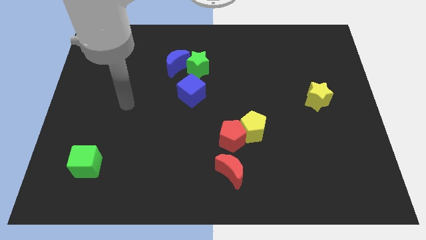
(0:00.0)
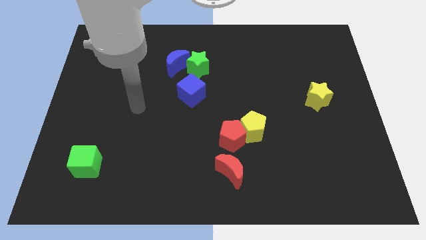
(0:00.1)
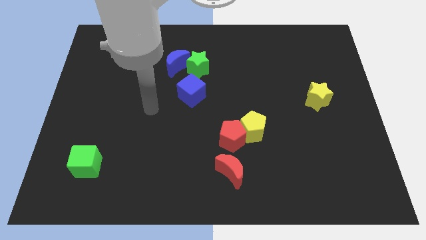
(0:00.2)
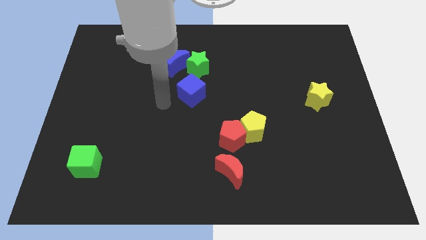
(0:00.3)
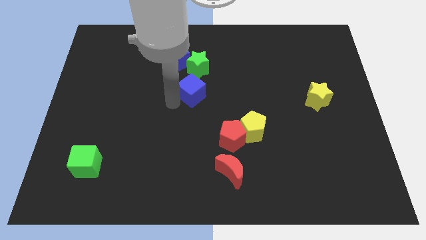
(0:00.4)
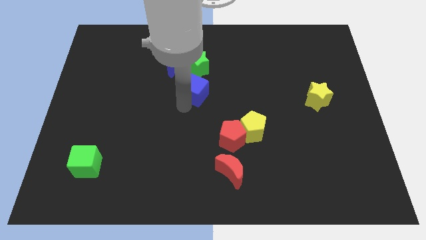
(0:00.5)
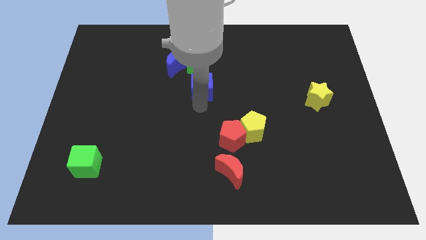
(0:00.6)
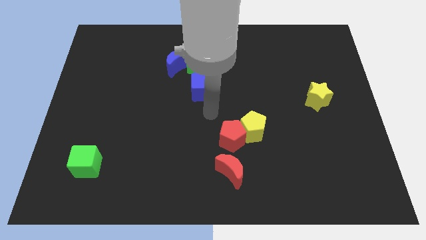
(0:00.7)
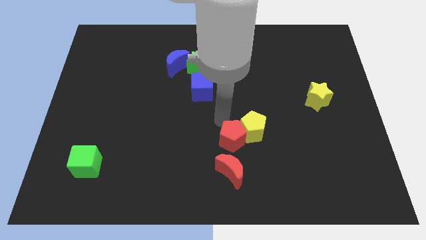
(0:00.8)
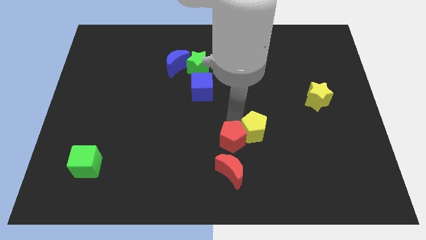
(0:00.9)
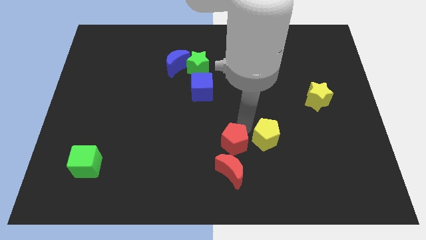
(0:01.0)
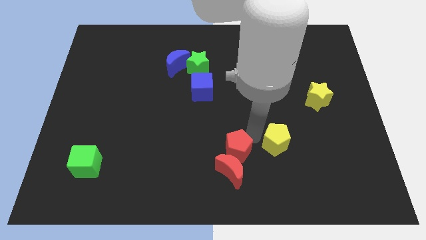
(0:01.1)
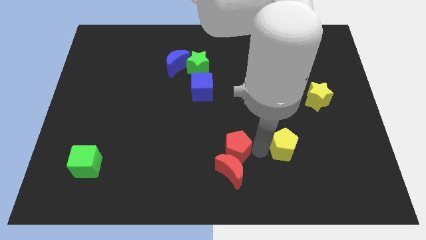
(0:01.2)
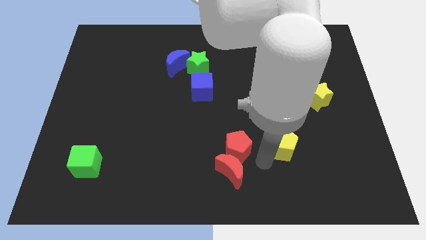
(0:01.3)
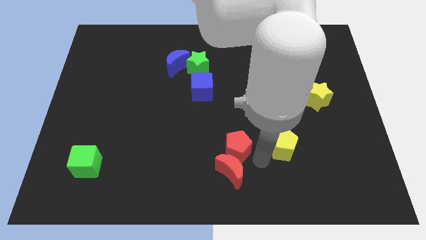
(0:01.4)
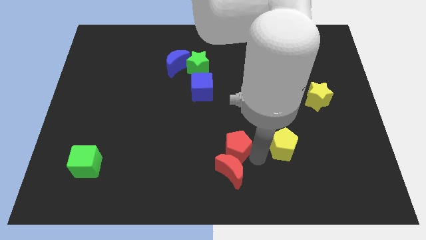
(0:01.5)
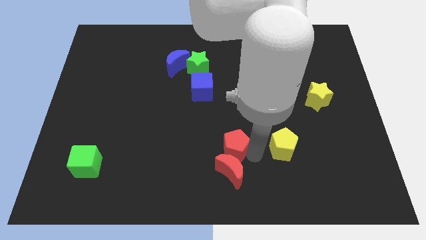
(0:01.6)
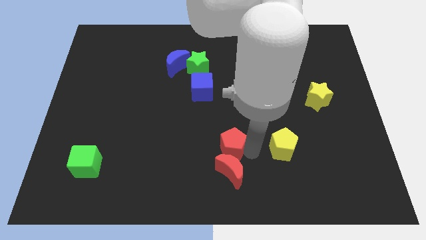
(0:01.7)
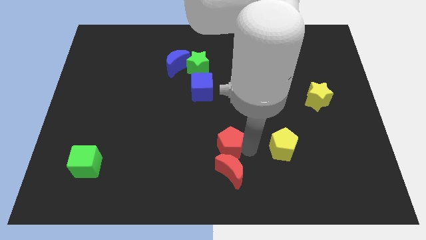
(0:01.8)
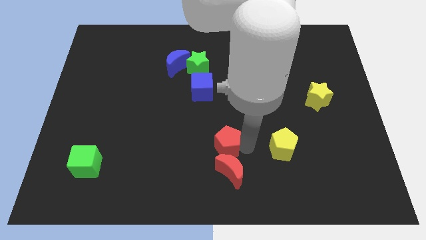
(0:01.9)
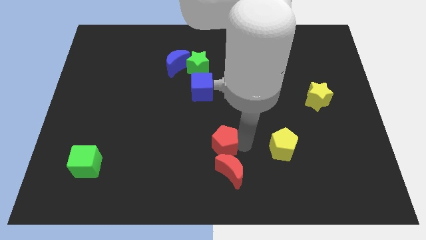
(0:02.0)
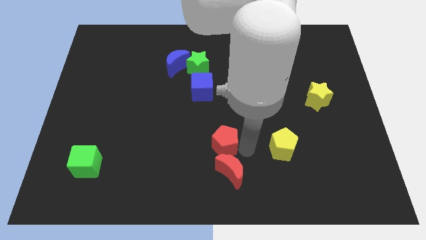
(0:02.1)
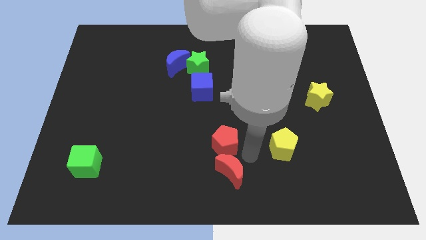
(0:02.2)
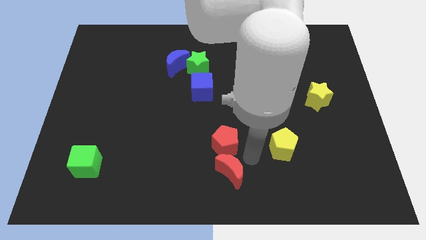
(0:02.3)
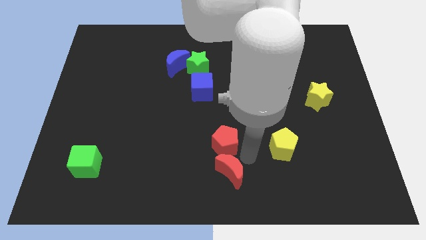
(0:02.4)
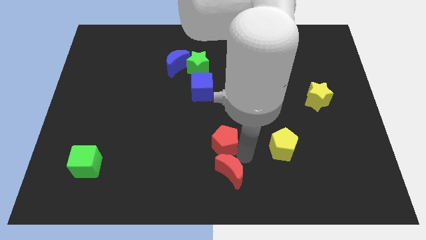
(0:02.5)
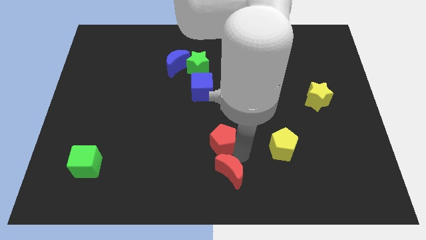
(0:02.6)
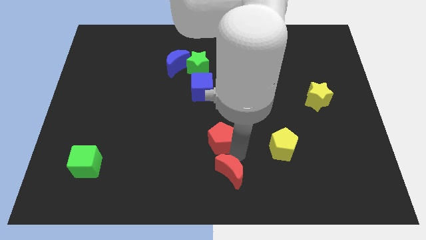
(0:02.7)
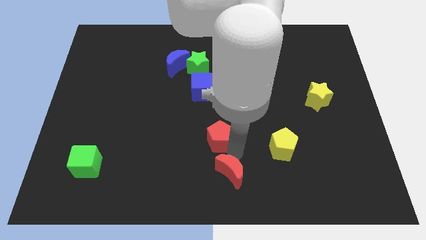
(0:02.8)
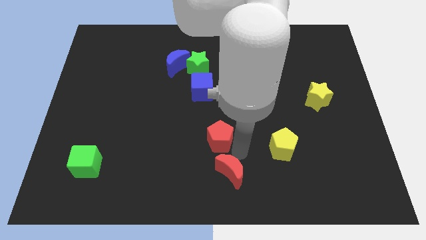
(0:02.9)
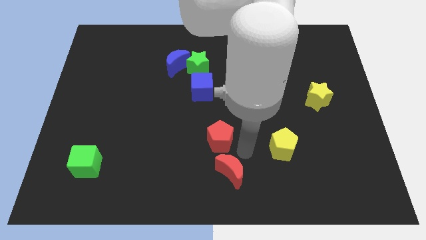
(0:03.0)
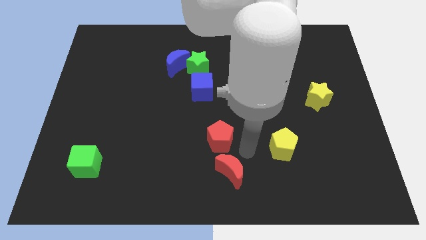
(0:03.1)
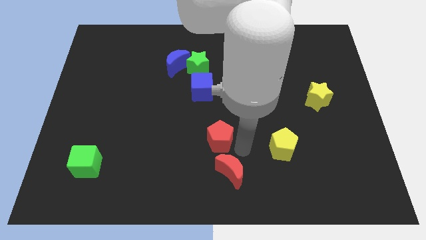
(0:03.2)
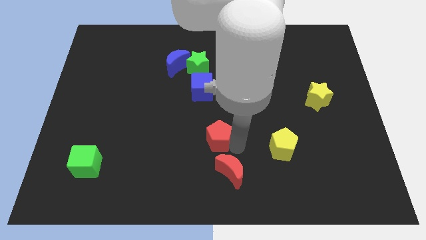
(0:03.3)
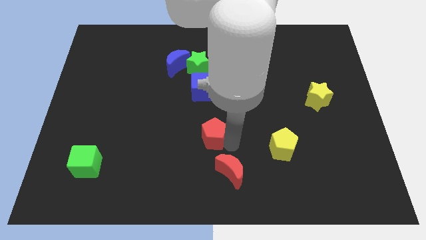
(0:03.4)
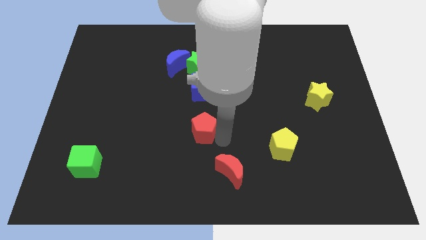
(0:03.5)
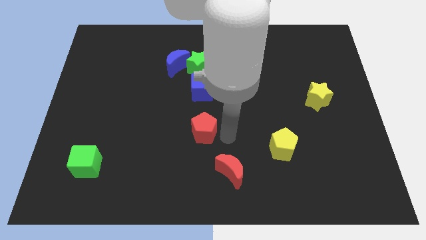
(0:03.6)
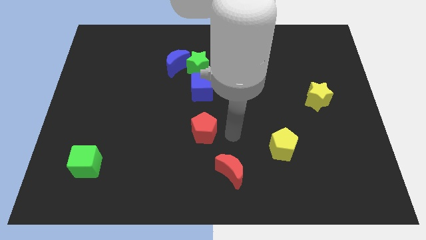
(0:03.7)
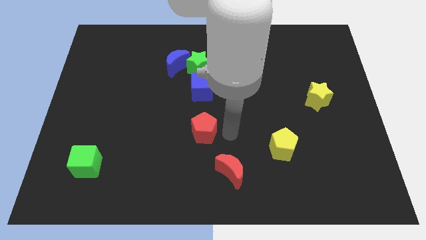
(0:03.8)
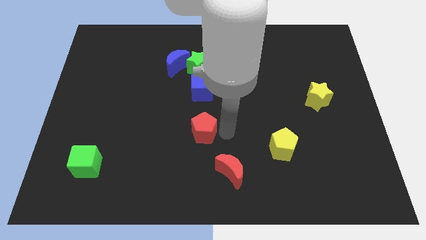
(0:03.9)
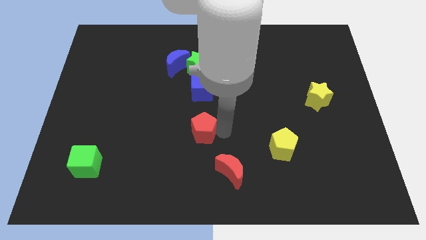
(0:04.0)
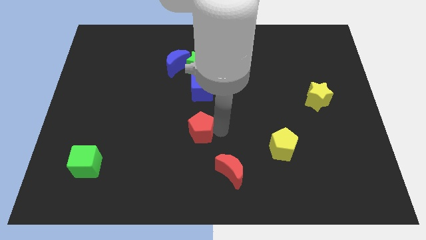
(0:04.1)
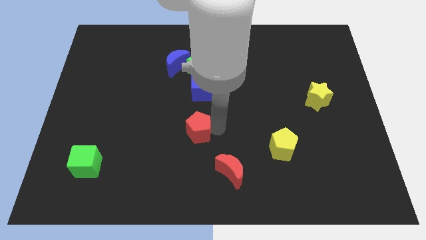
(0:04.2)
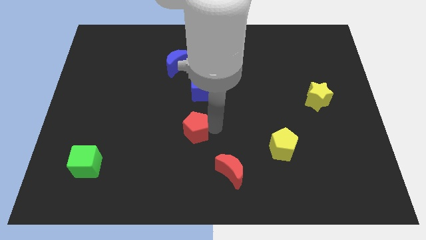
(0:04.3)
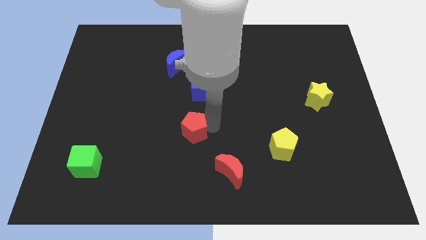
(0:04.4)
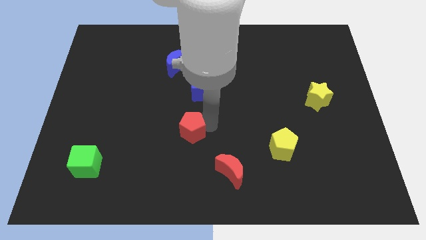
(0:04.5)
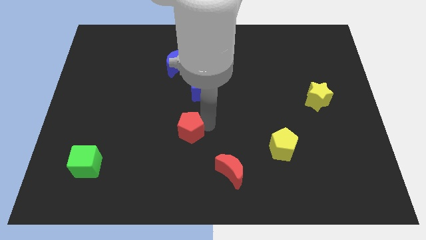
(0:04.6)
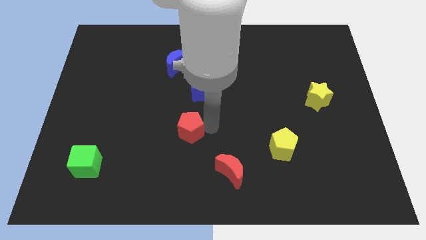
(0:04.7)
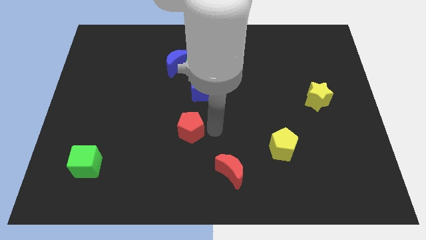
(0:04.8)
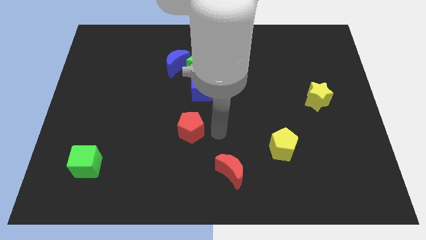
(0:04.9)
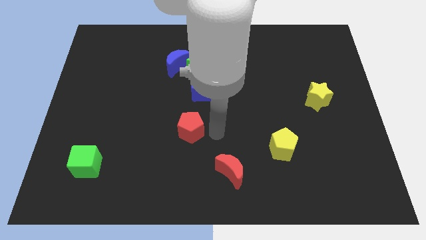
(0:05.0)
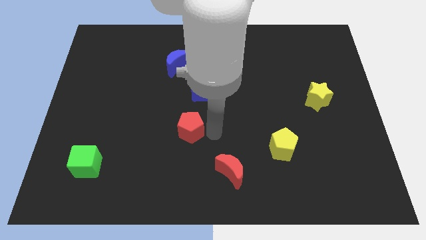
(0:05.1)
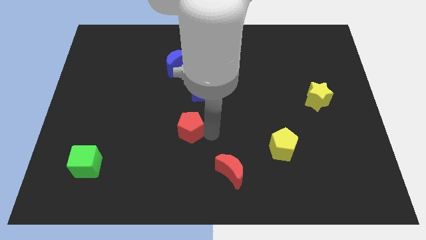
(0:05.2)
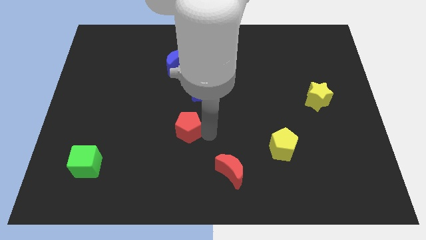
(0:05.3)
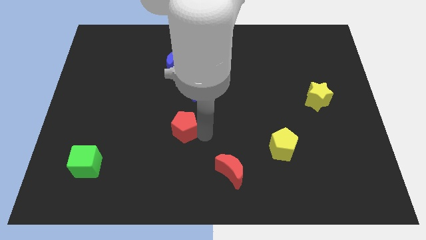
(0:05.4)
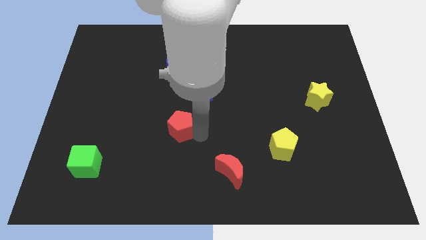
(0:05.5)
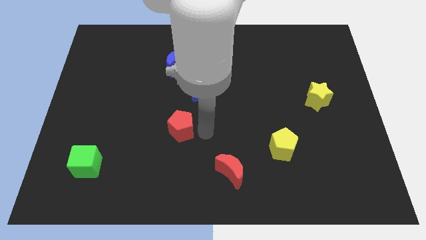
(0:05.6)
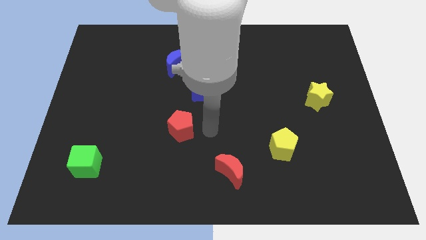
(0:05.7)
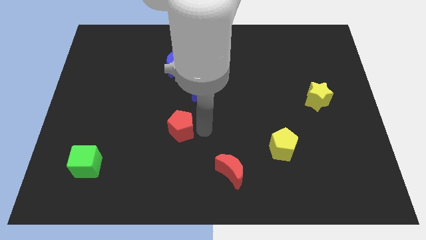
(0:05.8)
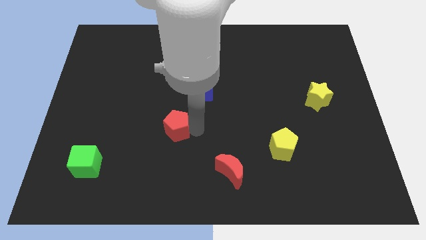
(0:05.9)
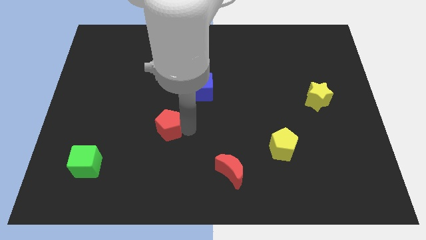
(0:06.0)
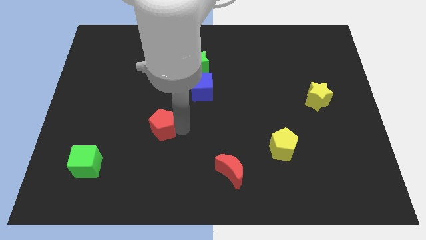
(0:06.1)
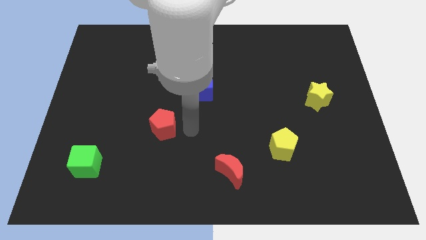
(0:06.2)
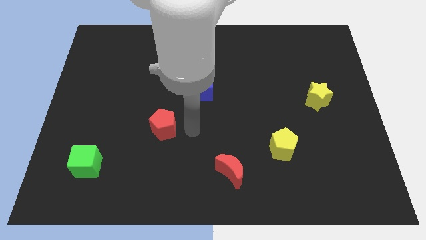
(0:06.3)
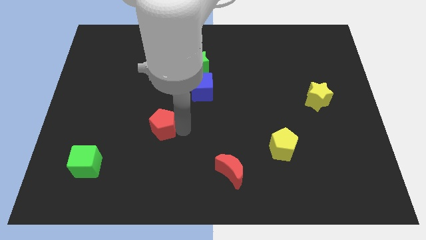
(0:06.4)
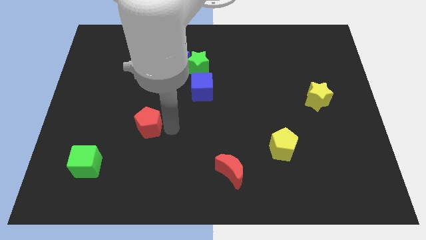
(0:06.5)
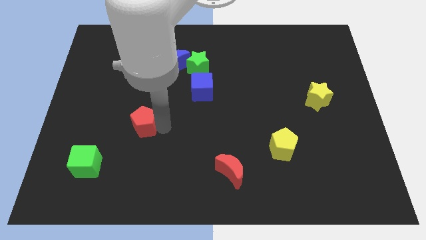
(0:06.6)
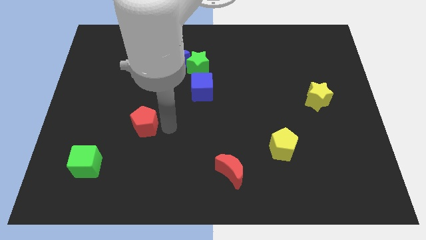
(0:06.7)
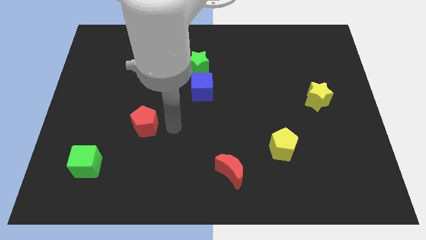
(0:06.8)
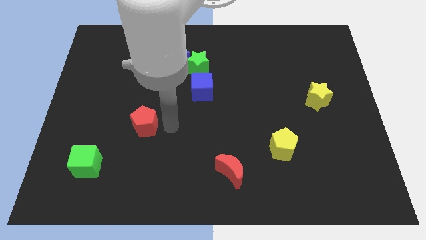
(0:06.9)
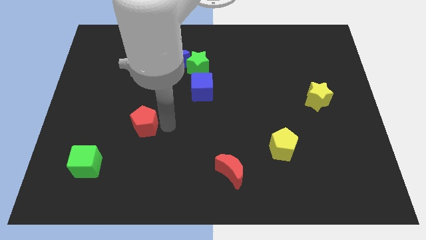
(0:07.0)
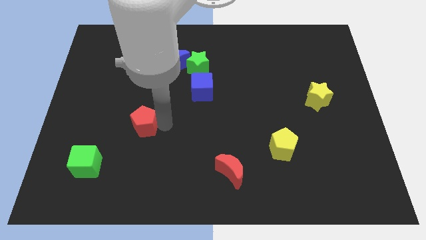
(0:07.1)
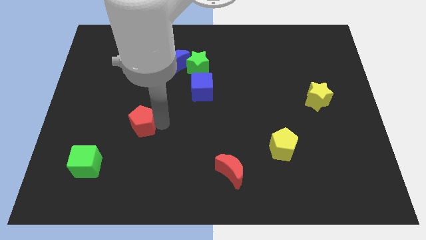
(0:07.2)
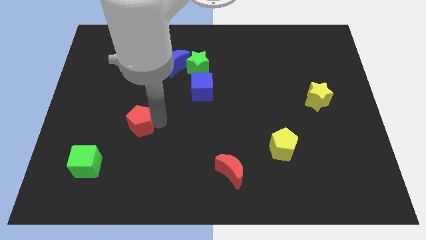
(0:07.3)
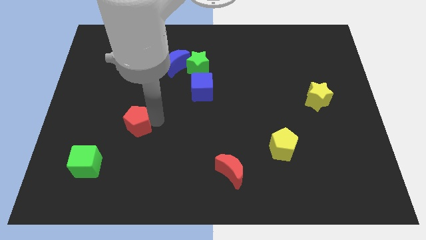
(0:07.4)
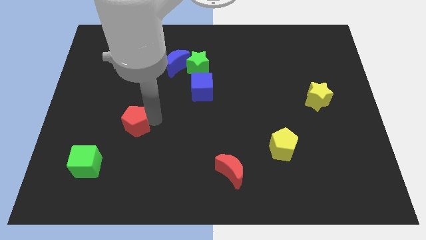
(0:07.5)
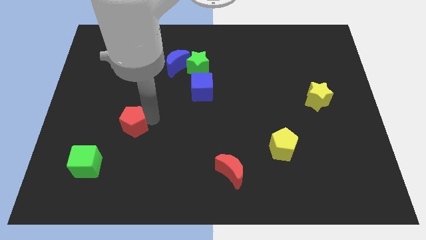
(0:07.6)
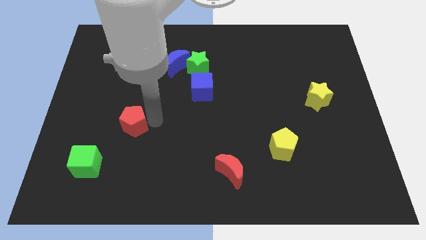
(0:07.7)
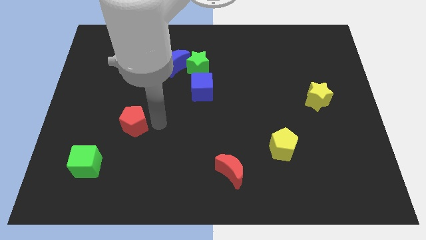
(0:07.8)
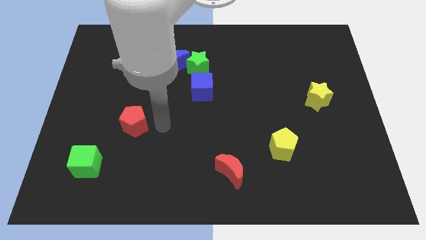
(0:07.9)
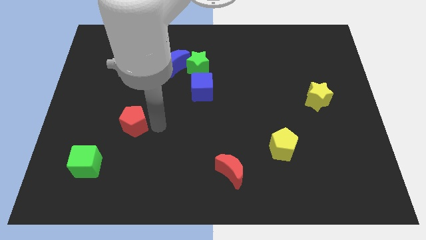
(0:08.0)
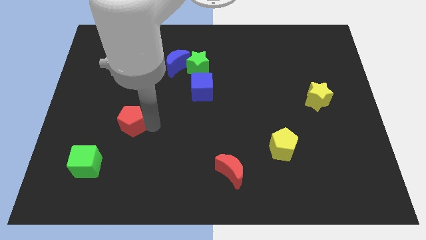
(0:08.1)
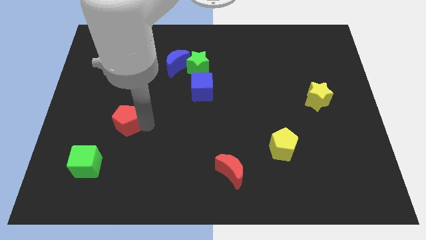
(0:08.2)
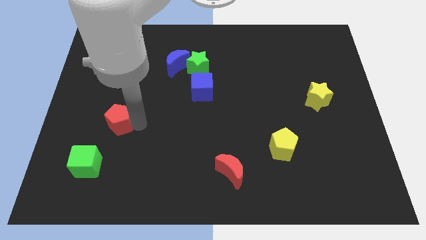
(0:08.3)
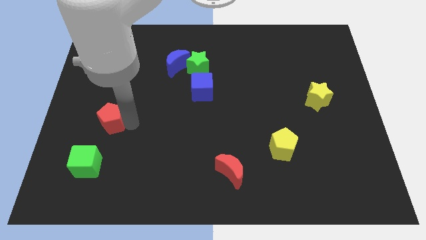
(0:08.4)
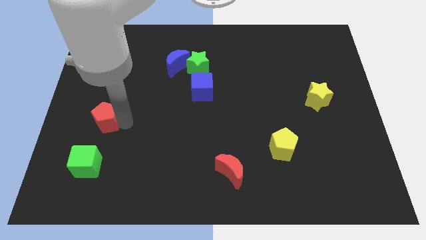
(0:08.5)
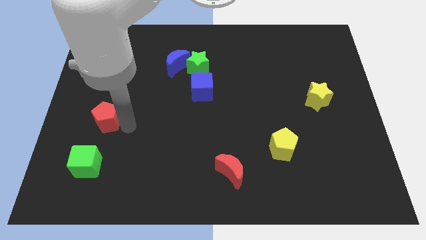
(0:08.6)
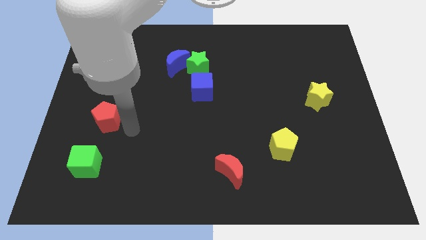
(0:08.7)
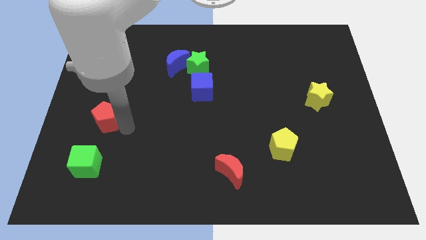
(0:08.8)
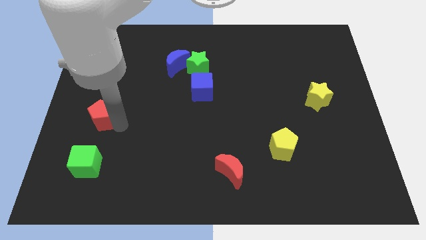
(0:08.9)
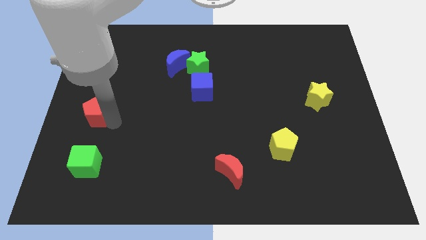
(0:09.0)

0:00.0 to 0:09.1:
put the red pentagon to the left side of the board
